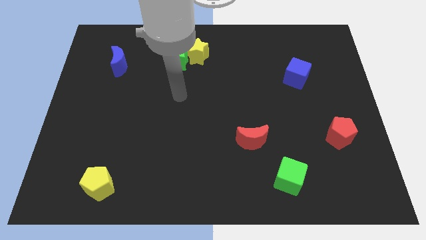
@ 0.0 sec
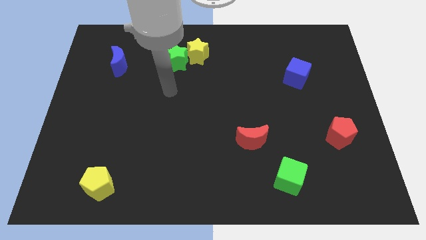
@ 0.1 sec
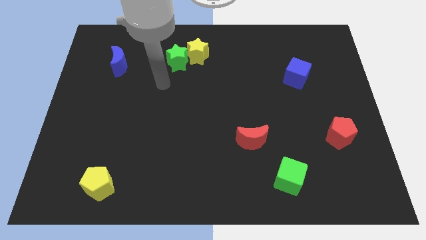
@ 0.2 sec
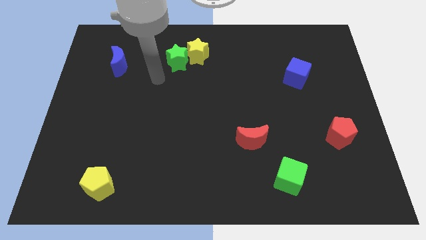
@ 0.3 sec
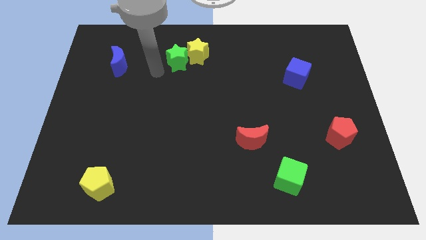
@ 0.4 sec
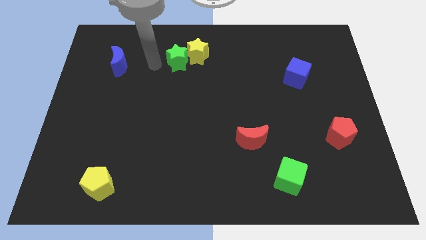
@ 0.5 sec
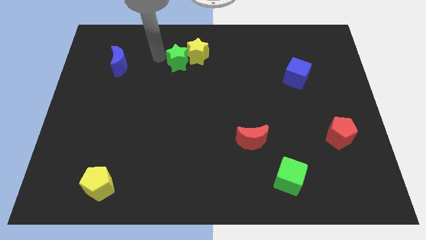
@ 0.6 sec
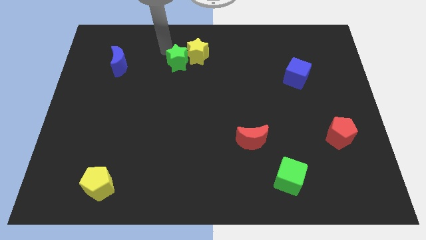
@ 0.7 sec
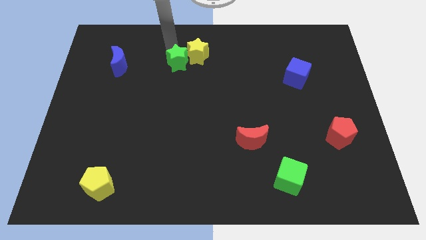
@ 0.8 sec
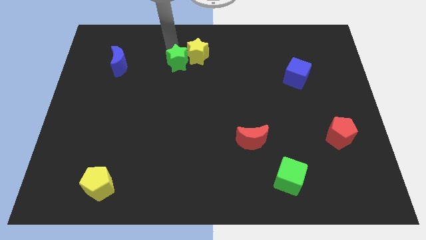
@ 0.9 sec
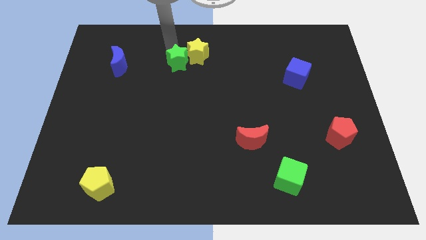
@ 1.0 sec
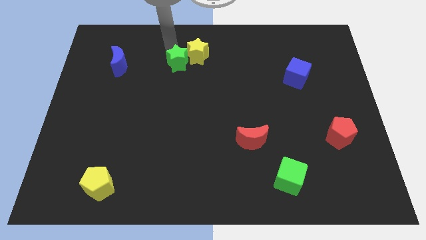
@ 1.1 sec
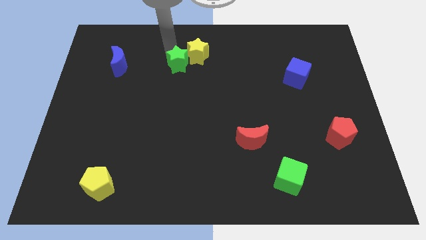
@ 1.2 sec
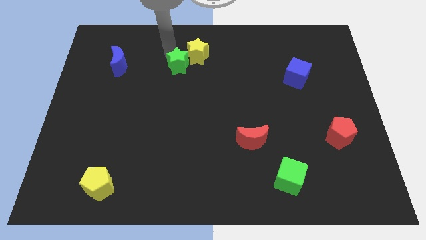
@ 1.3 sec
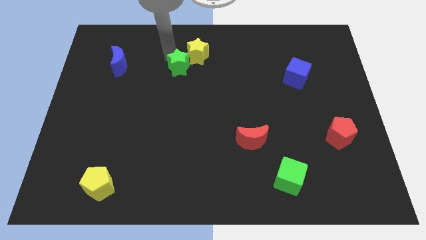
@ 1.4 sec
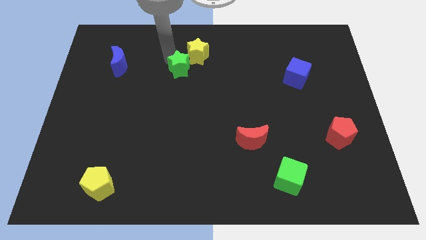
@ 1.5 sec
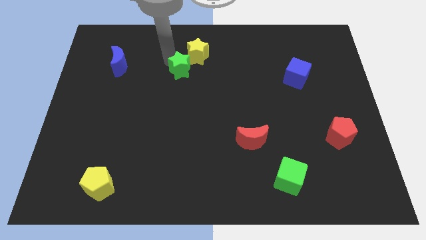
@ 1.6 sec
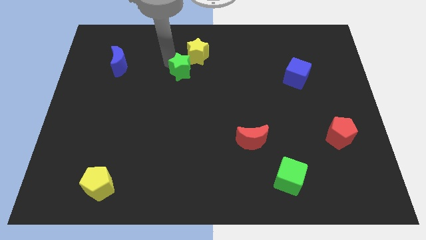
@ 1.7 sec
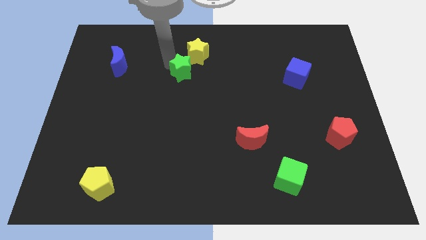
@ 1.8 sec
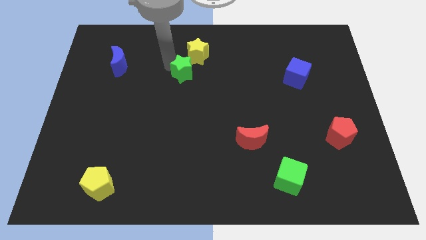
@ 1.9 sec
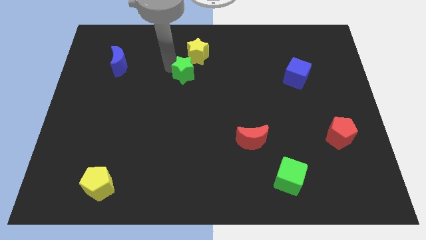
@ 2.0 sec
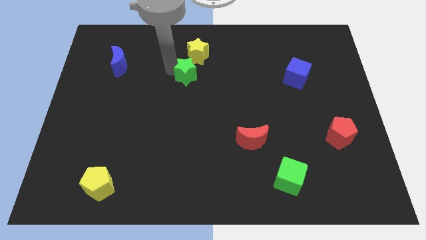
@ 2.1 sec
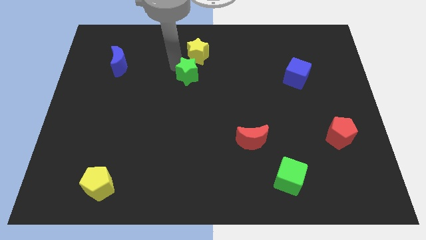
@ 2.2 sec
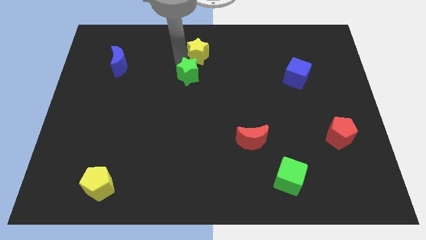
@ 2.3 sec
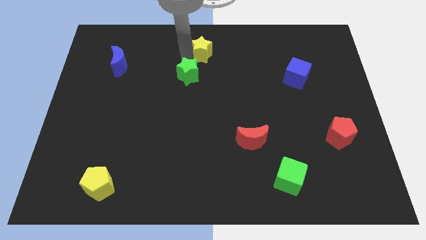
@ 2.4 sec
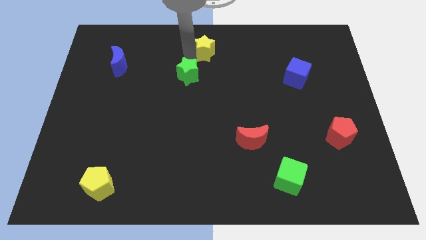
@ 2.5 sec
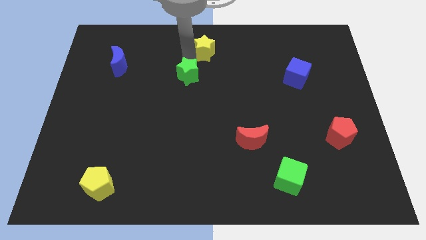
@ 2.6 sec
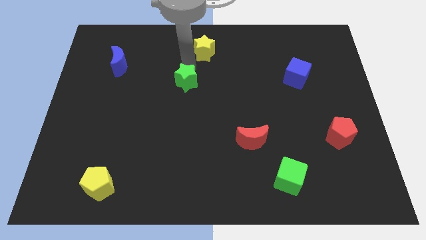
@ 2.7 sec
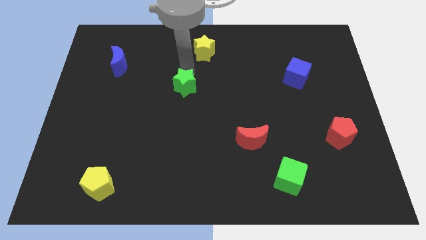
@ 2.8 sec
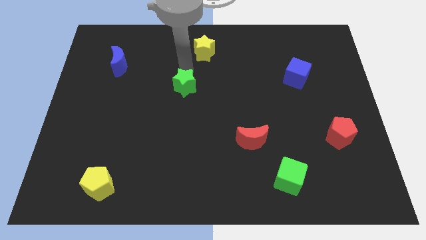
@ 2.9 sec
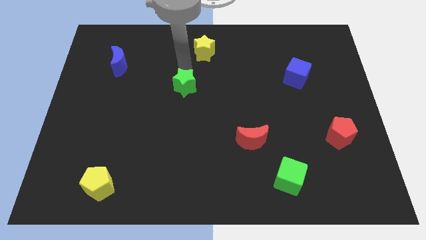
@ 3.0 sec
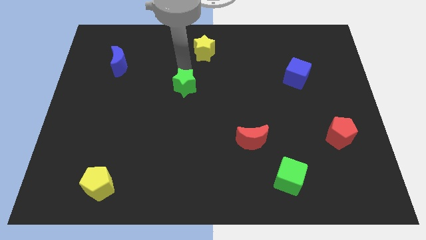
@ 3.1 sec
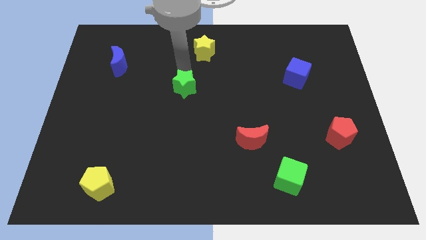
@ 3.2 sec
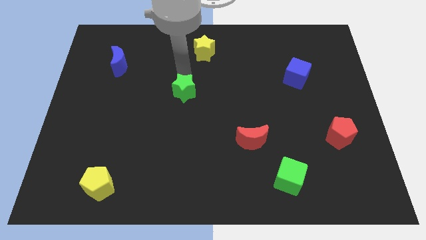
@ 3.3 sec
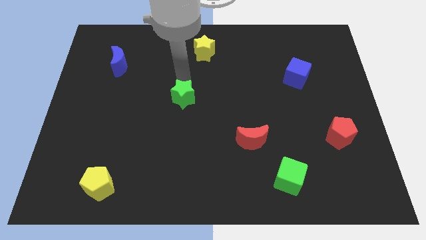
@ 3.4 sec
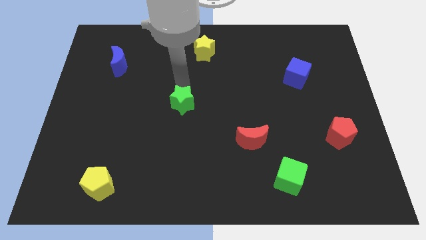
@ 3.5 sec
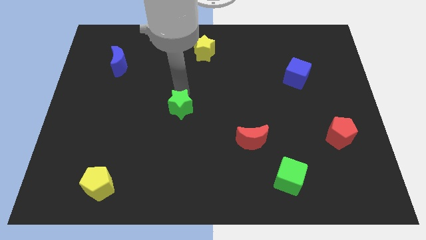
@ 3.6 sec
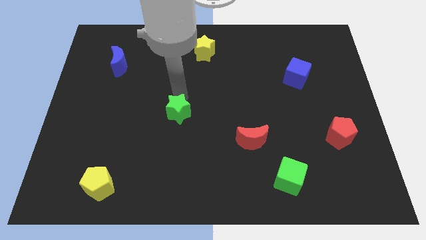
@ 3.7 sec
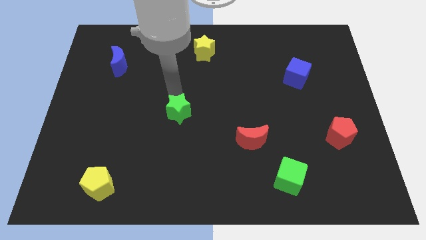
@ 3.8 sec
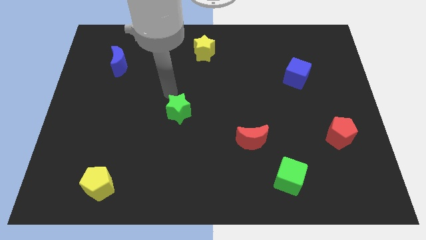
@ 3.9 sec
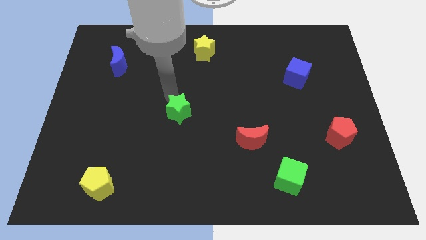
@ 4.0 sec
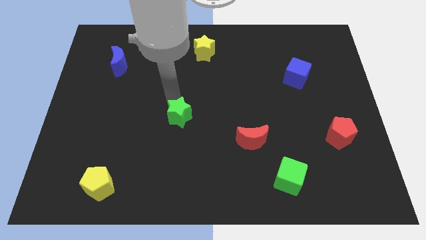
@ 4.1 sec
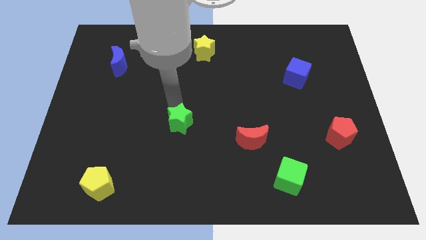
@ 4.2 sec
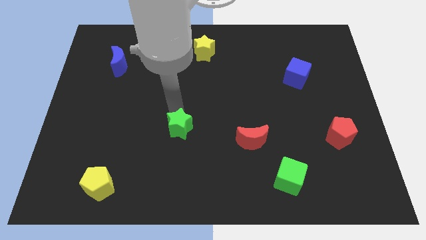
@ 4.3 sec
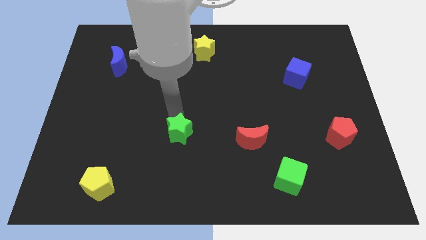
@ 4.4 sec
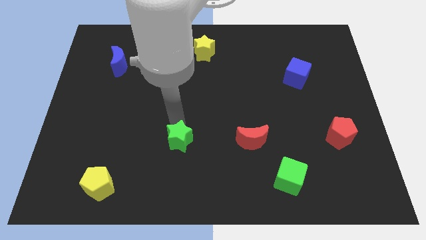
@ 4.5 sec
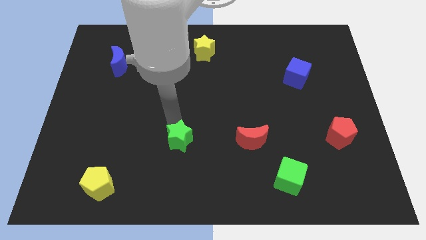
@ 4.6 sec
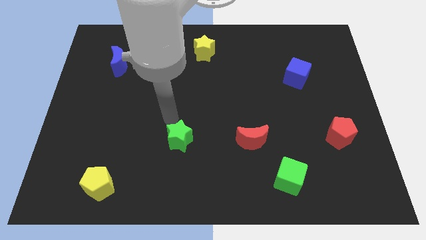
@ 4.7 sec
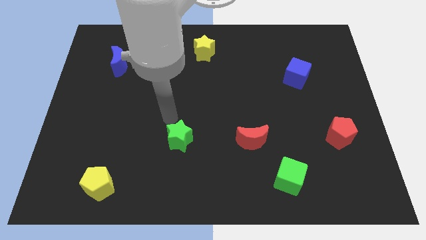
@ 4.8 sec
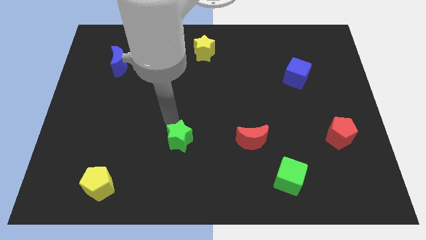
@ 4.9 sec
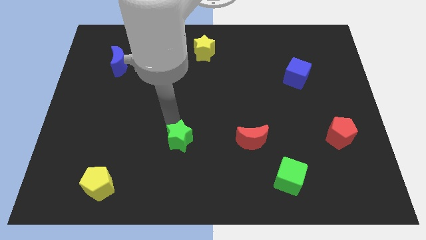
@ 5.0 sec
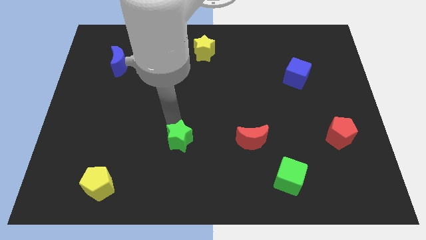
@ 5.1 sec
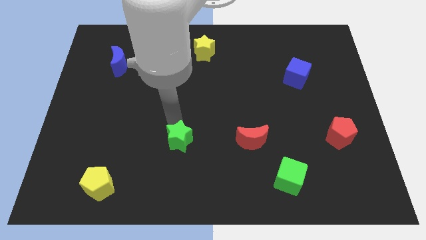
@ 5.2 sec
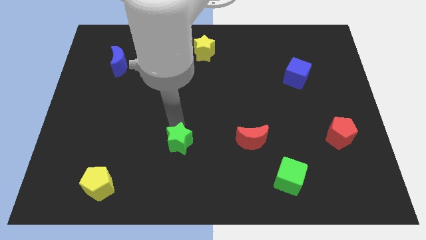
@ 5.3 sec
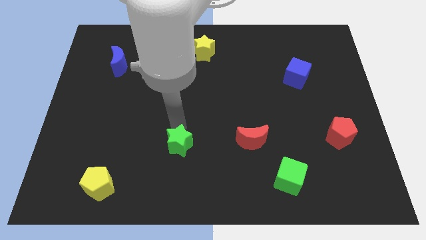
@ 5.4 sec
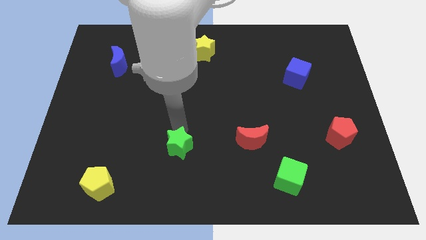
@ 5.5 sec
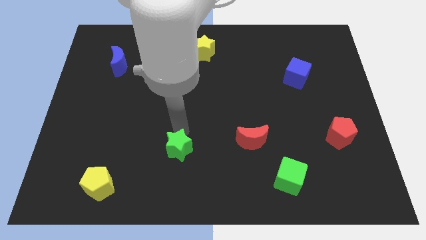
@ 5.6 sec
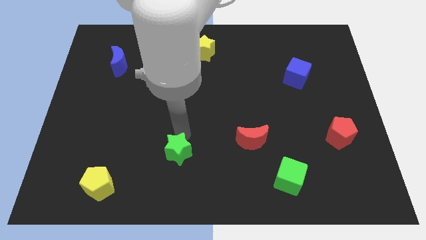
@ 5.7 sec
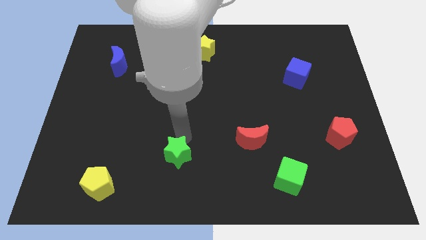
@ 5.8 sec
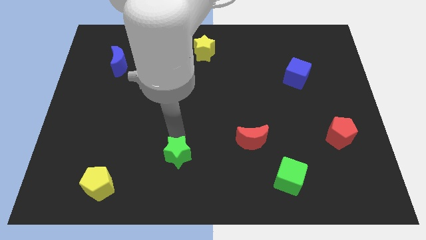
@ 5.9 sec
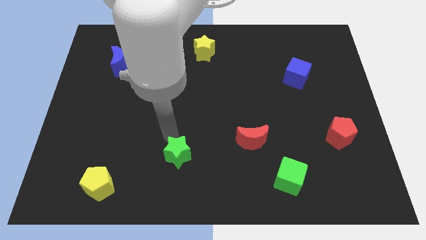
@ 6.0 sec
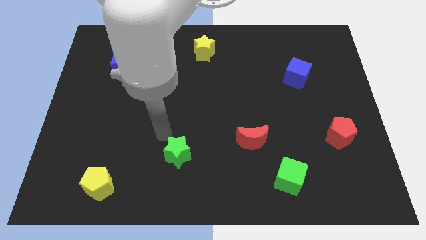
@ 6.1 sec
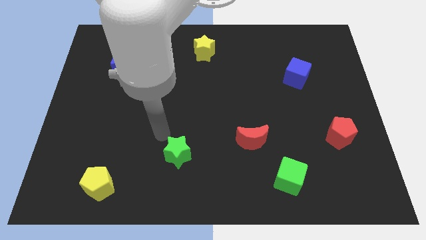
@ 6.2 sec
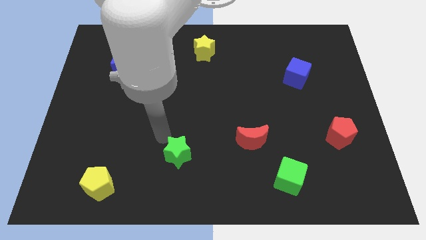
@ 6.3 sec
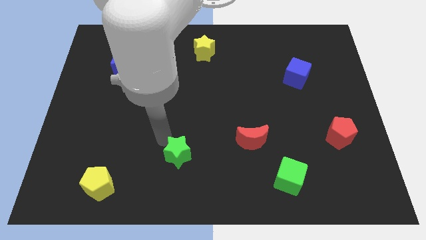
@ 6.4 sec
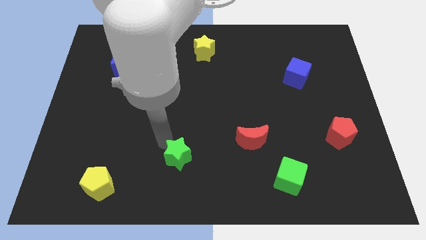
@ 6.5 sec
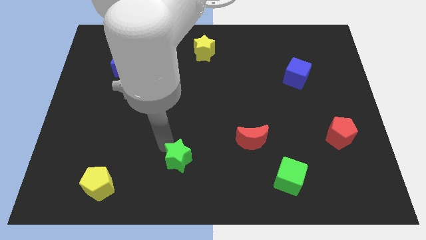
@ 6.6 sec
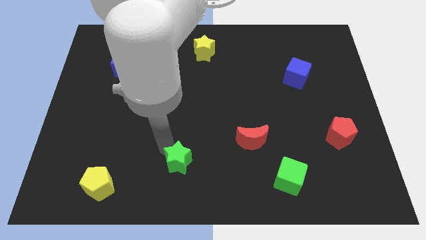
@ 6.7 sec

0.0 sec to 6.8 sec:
push the green star to the bottom side

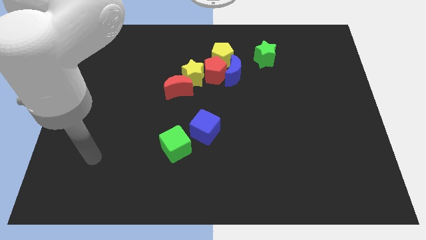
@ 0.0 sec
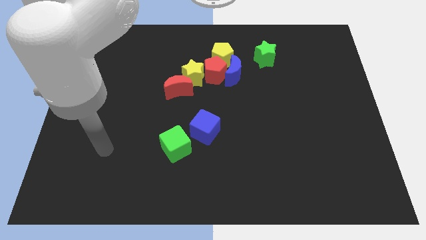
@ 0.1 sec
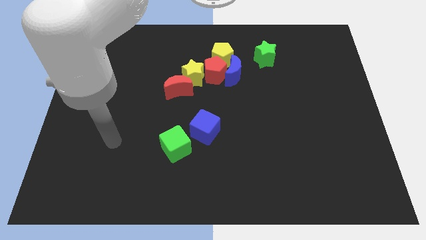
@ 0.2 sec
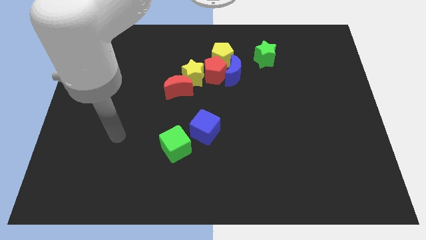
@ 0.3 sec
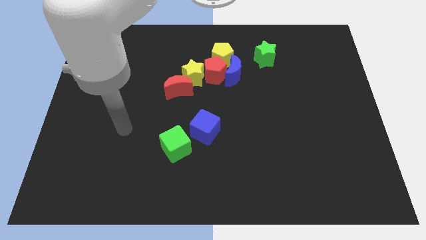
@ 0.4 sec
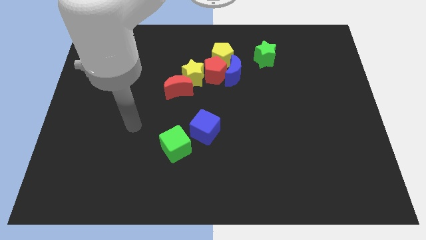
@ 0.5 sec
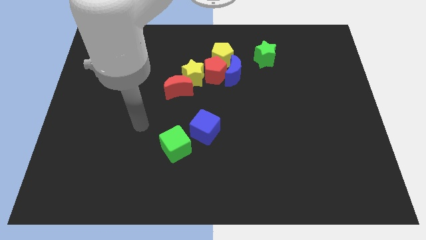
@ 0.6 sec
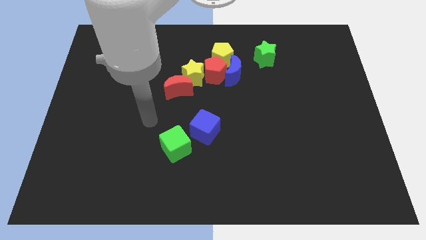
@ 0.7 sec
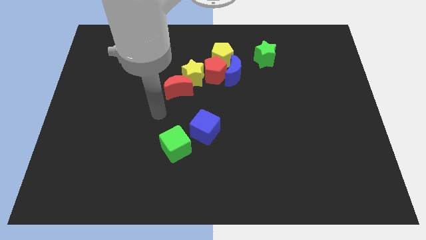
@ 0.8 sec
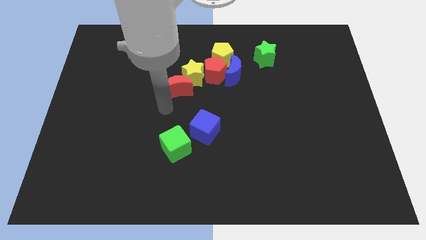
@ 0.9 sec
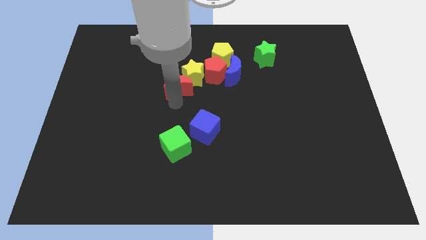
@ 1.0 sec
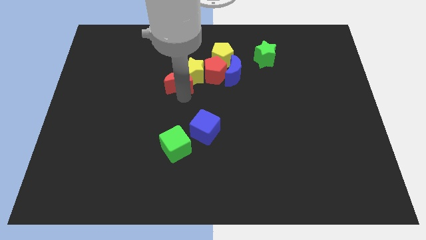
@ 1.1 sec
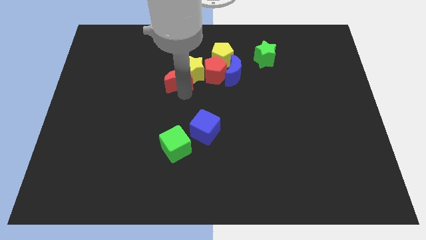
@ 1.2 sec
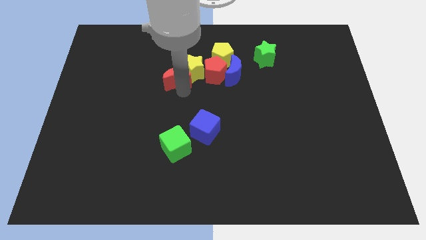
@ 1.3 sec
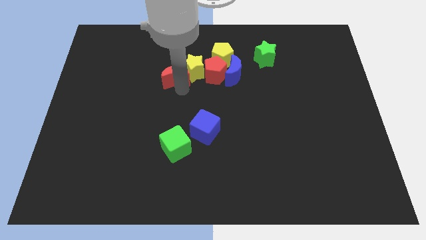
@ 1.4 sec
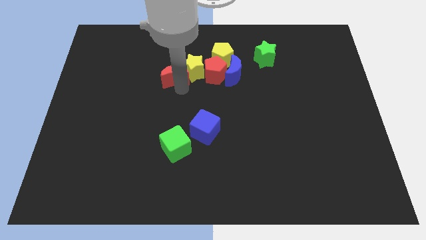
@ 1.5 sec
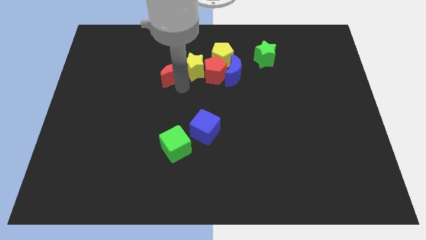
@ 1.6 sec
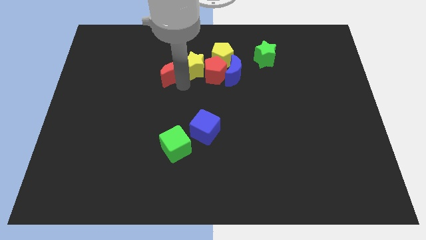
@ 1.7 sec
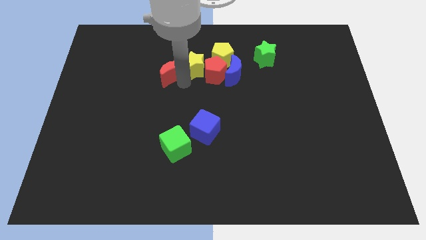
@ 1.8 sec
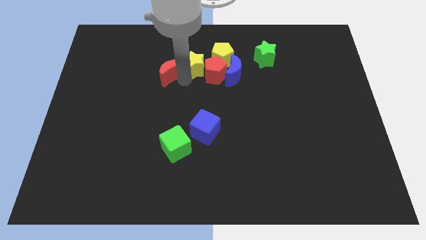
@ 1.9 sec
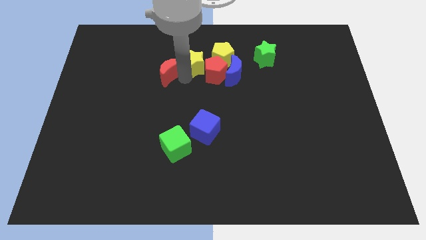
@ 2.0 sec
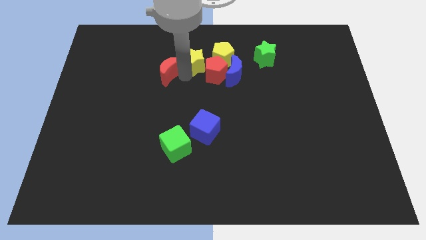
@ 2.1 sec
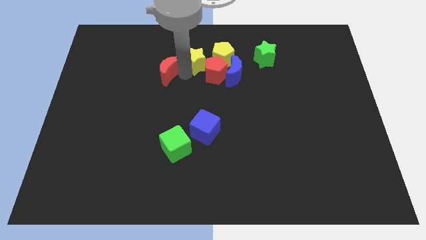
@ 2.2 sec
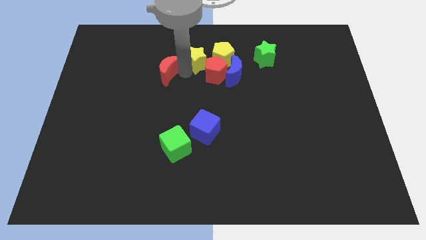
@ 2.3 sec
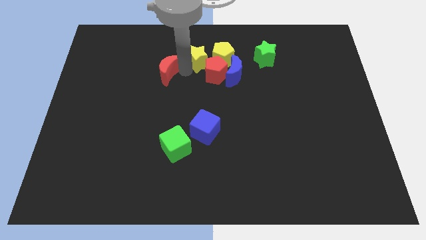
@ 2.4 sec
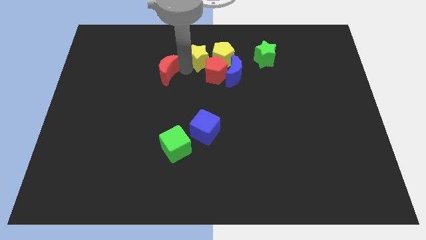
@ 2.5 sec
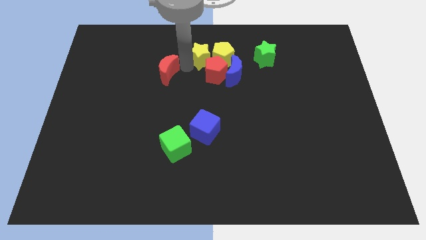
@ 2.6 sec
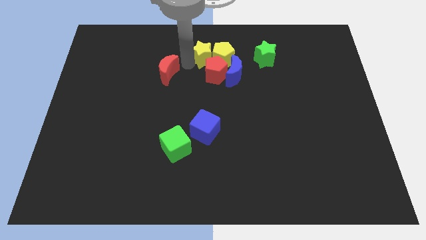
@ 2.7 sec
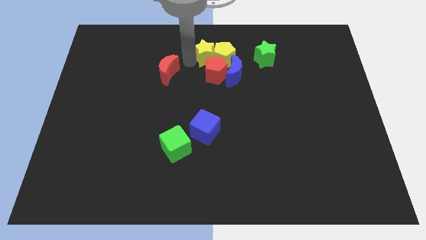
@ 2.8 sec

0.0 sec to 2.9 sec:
put the yellow star to the top side
